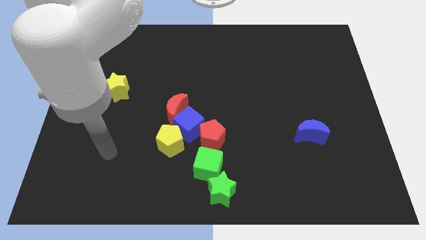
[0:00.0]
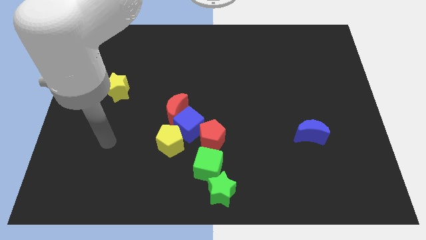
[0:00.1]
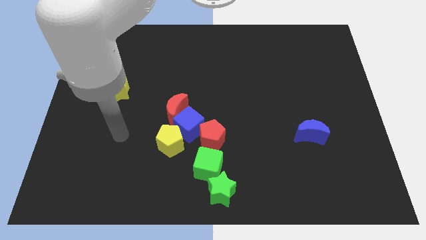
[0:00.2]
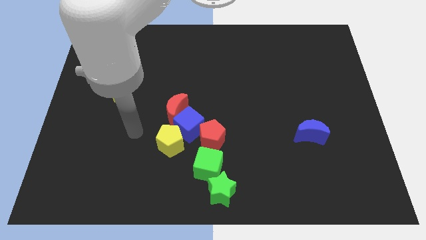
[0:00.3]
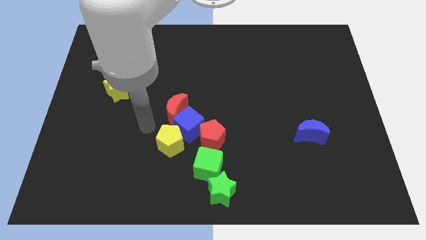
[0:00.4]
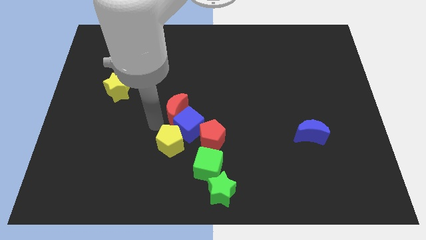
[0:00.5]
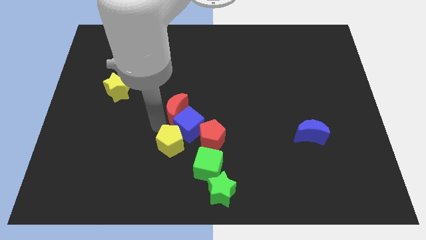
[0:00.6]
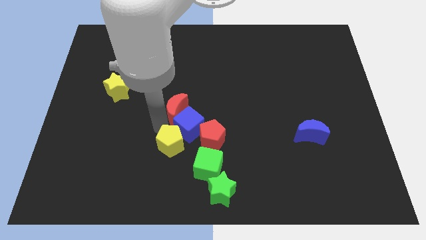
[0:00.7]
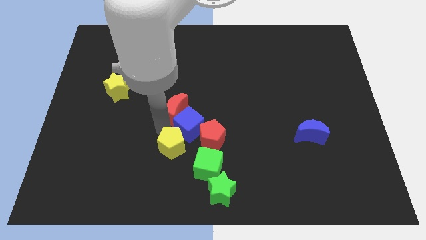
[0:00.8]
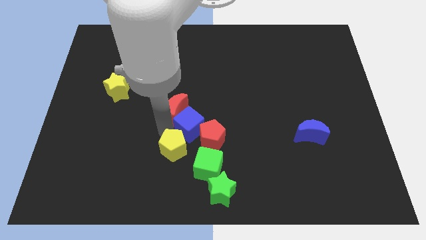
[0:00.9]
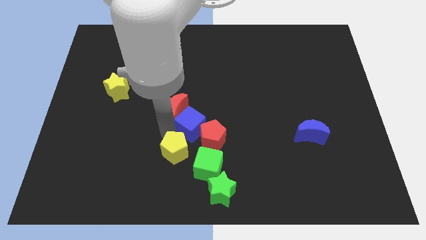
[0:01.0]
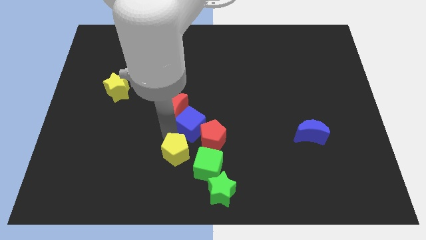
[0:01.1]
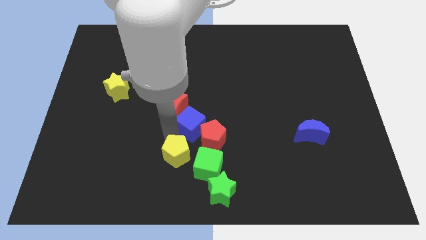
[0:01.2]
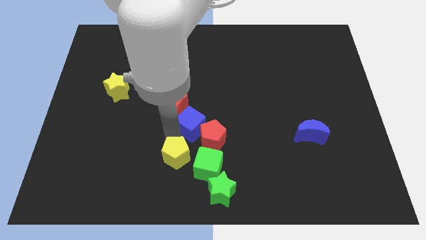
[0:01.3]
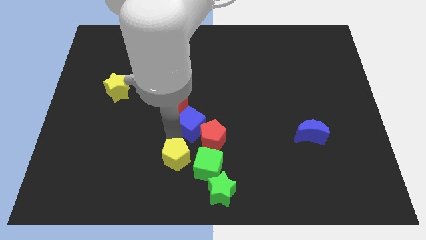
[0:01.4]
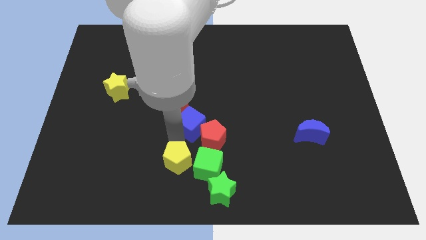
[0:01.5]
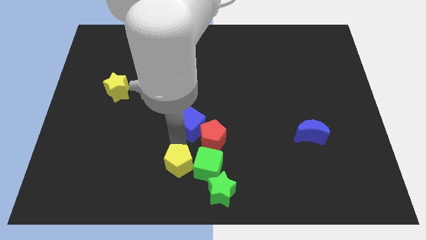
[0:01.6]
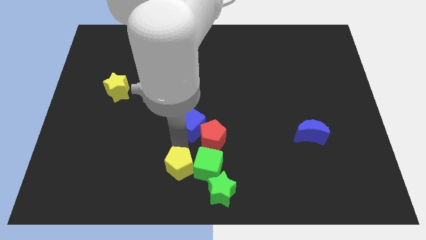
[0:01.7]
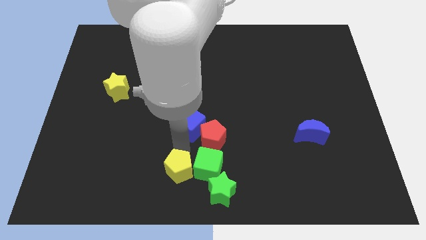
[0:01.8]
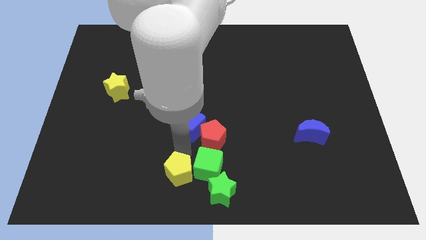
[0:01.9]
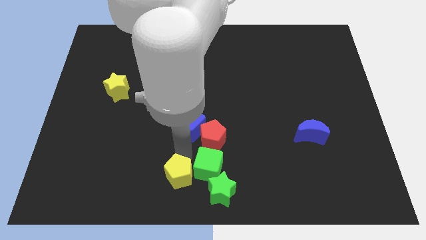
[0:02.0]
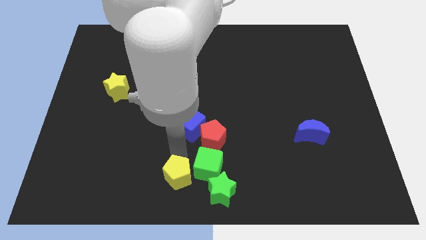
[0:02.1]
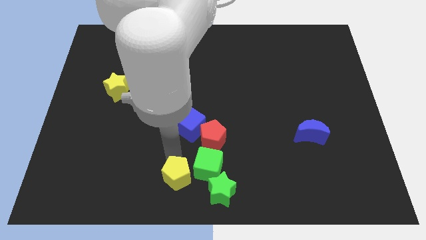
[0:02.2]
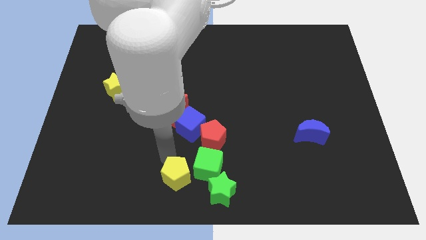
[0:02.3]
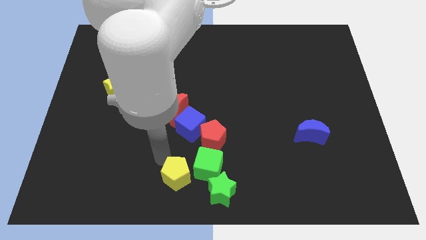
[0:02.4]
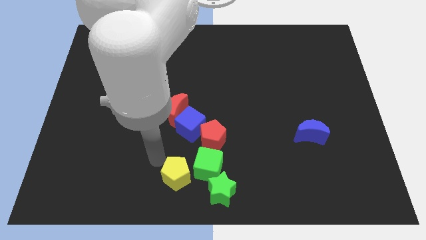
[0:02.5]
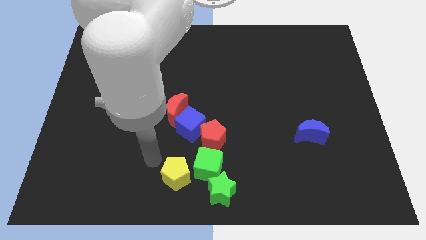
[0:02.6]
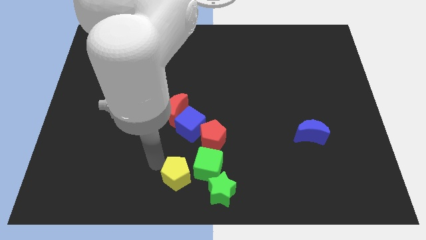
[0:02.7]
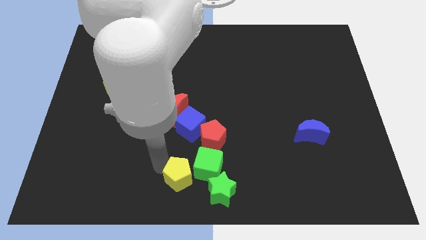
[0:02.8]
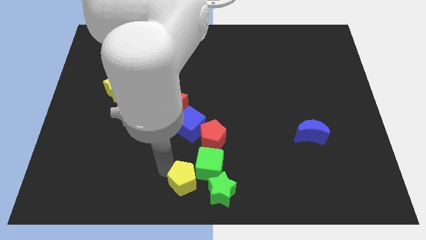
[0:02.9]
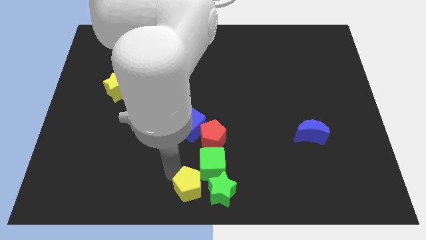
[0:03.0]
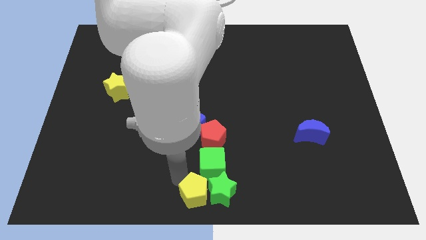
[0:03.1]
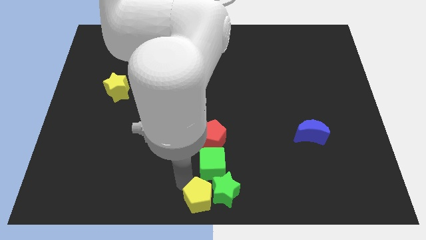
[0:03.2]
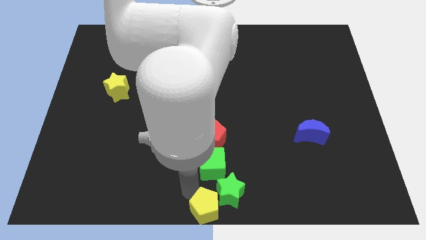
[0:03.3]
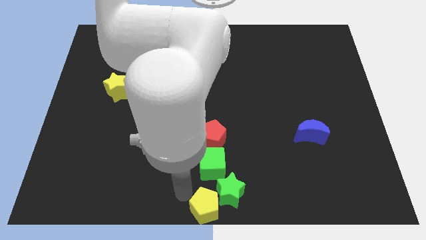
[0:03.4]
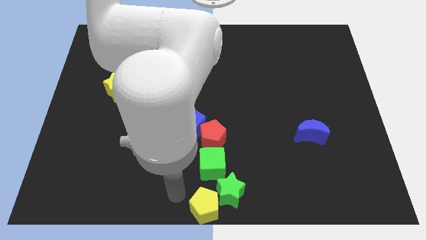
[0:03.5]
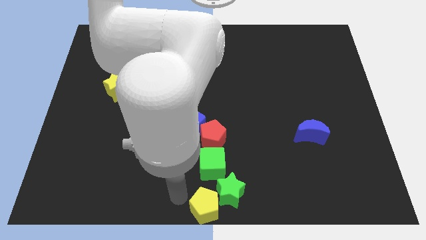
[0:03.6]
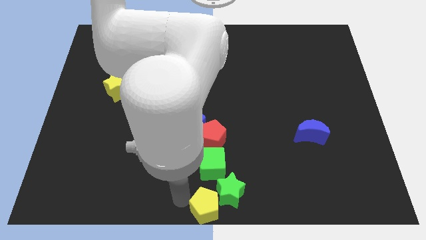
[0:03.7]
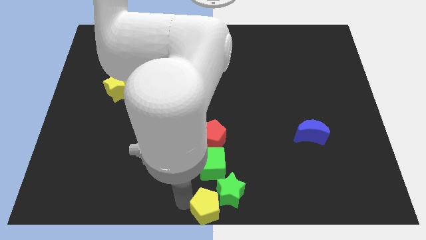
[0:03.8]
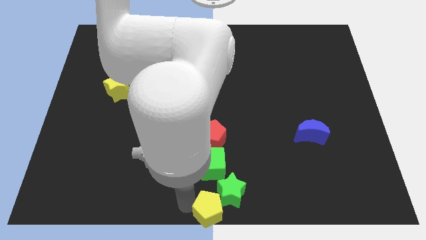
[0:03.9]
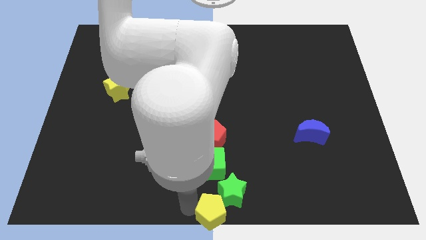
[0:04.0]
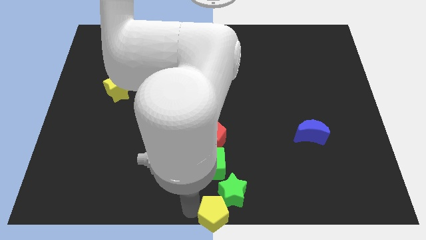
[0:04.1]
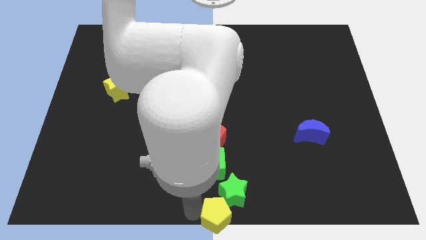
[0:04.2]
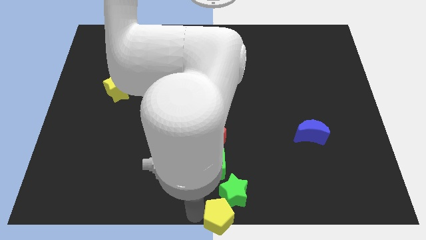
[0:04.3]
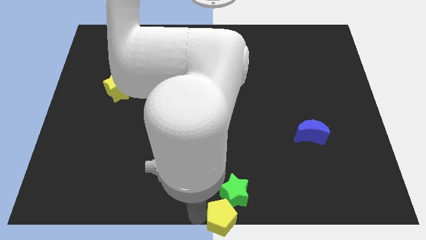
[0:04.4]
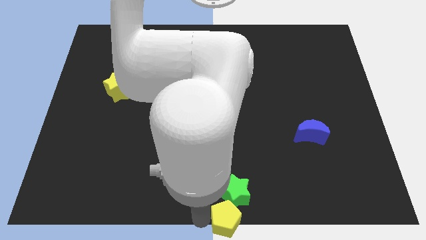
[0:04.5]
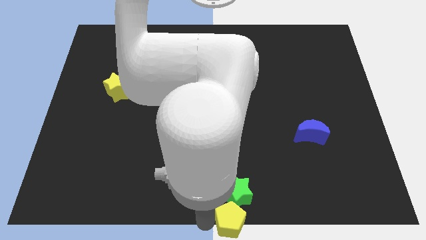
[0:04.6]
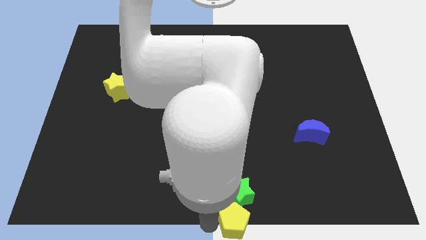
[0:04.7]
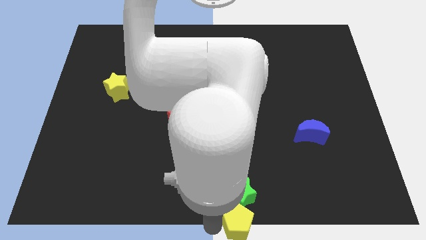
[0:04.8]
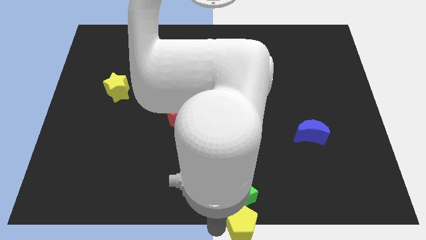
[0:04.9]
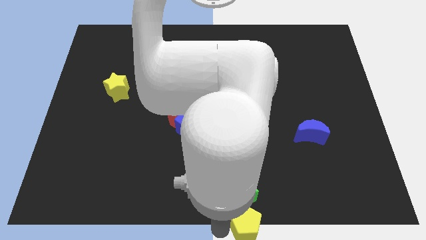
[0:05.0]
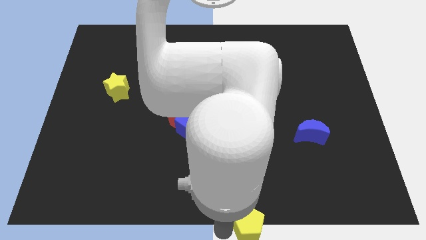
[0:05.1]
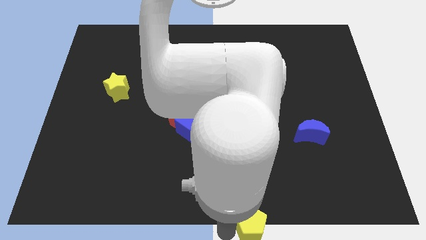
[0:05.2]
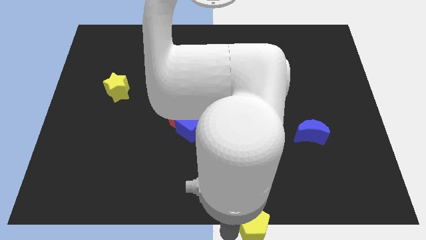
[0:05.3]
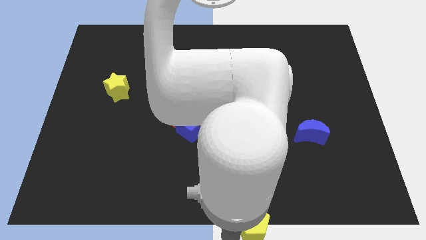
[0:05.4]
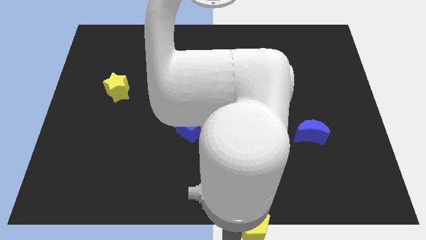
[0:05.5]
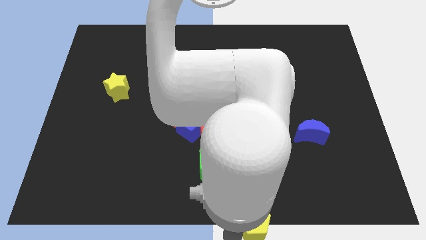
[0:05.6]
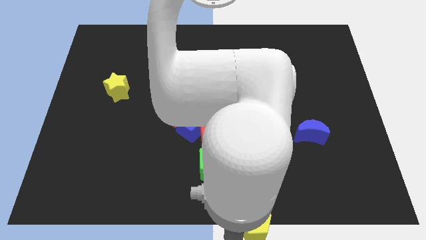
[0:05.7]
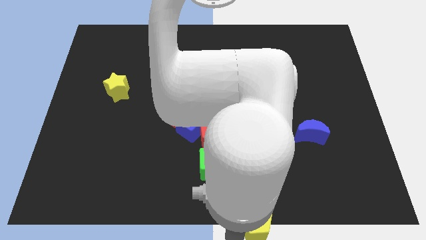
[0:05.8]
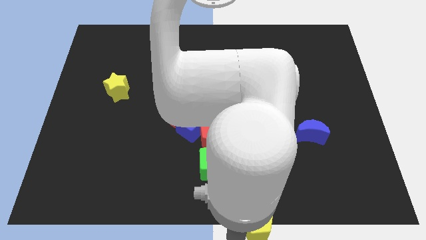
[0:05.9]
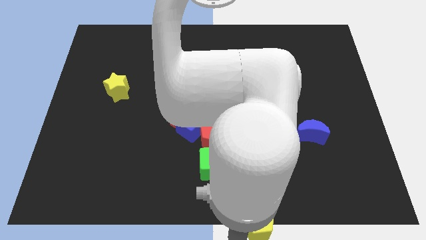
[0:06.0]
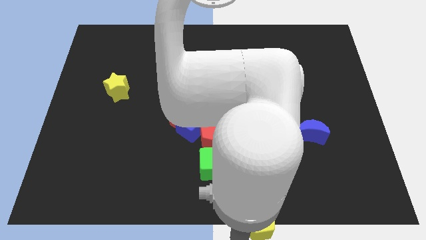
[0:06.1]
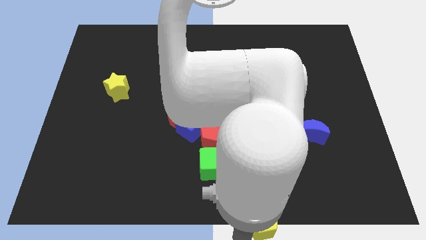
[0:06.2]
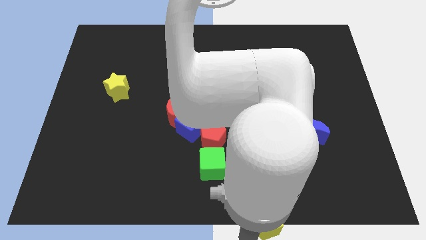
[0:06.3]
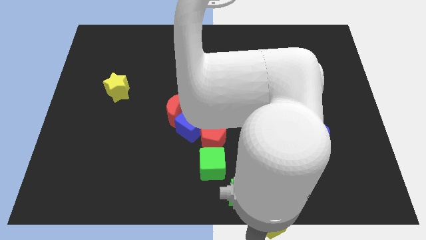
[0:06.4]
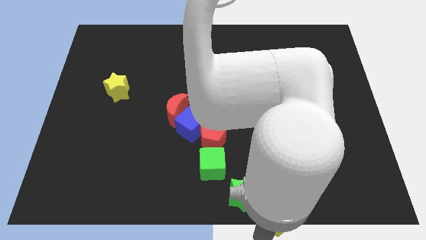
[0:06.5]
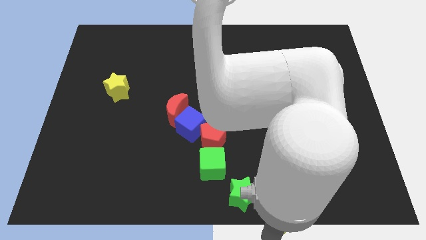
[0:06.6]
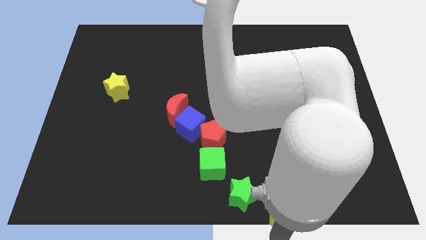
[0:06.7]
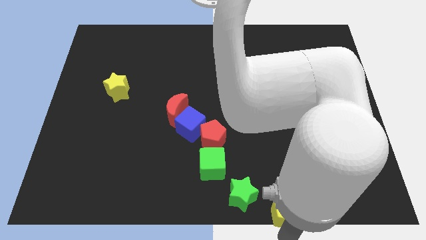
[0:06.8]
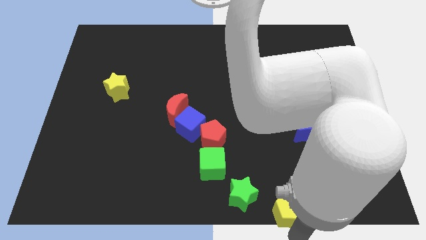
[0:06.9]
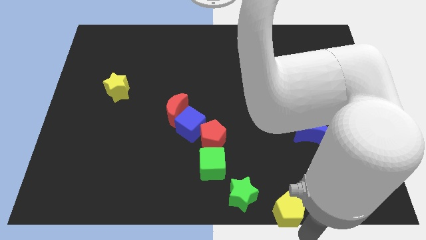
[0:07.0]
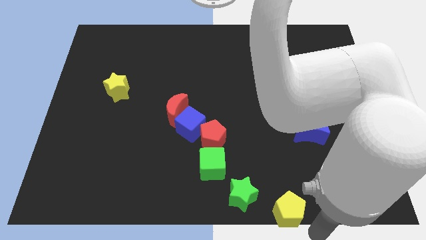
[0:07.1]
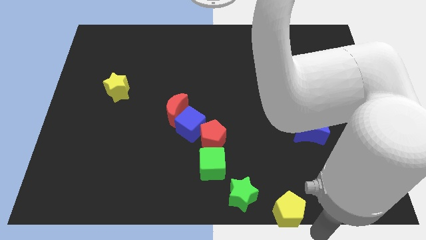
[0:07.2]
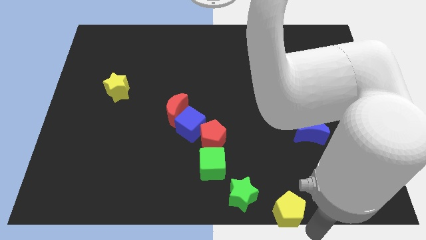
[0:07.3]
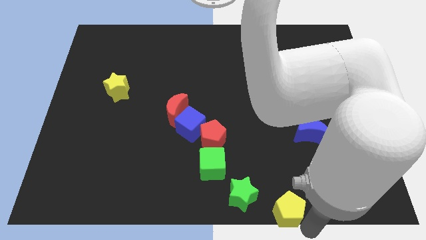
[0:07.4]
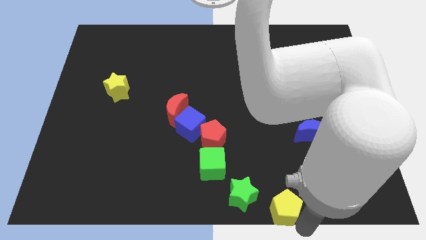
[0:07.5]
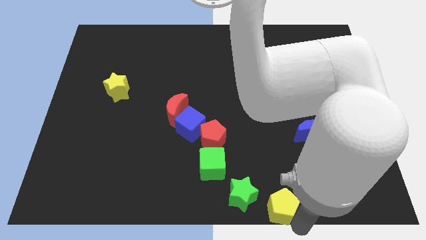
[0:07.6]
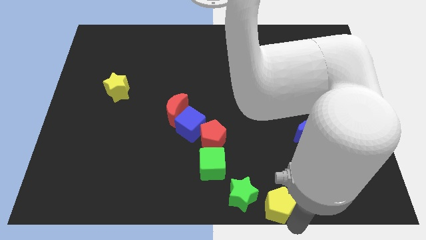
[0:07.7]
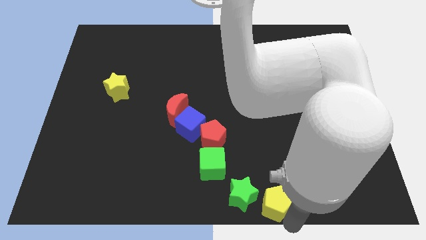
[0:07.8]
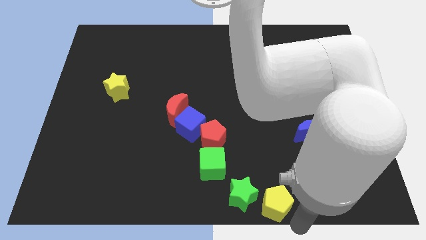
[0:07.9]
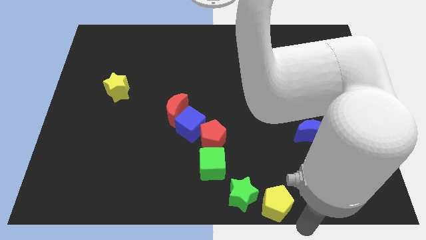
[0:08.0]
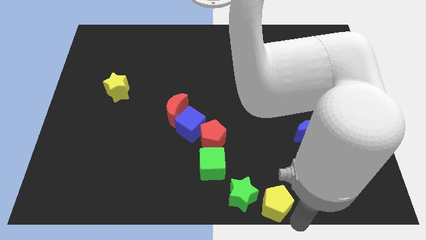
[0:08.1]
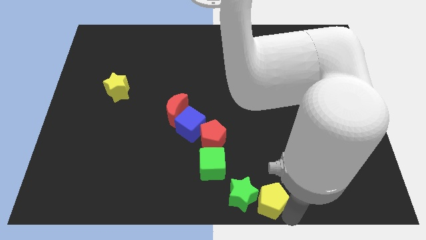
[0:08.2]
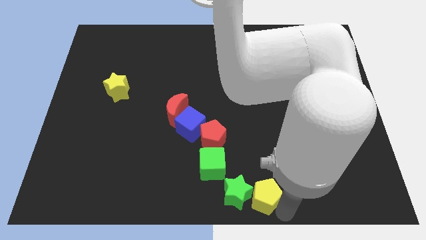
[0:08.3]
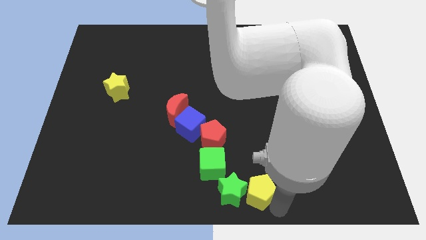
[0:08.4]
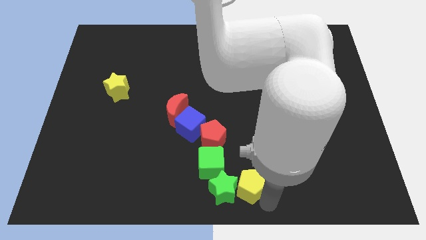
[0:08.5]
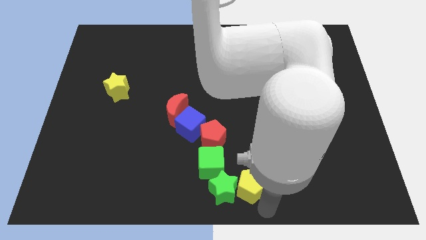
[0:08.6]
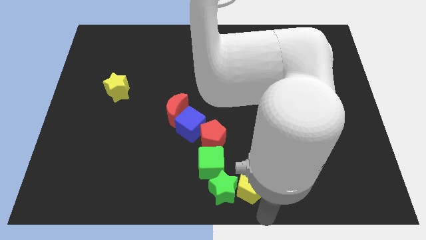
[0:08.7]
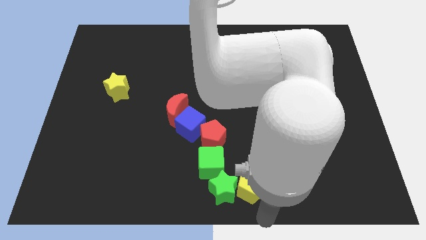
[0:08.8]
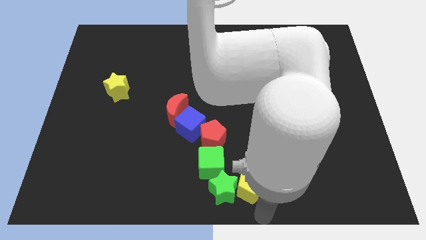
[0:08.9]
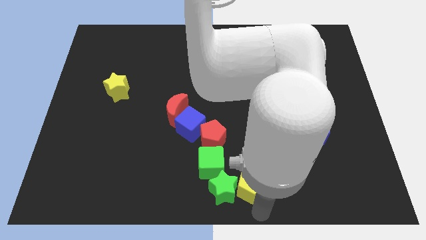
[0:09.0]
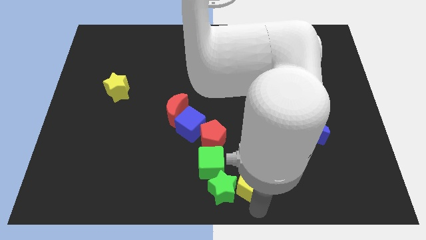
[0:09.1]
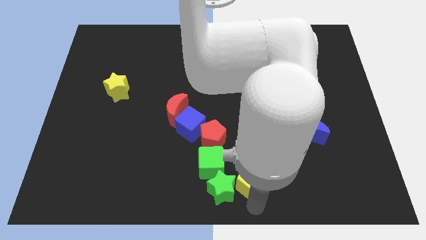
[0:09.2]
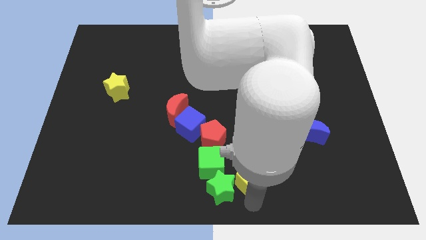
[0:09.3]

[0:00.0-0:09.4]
move the yellow pentagon diagonally down and to the right of the red pentagon
